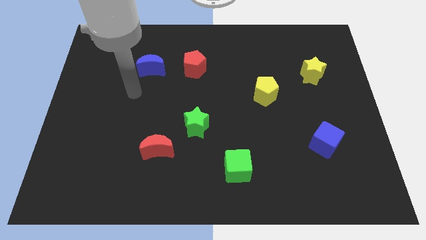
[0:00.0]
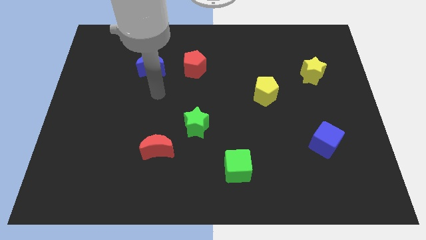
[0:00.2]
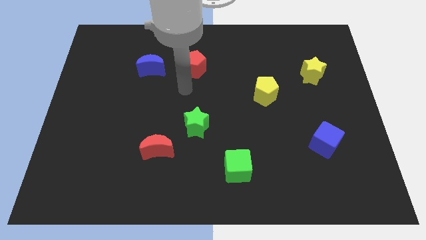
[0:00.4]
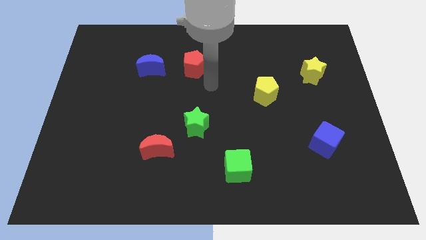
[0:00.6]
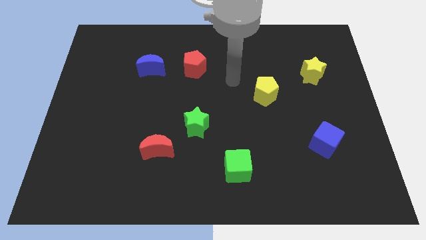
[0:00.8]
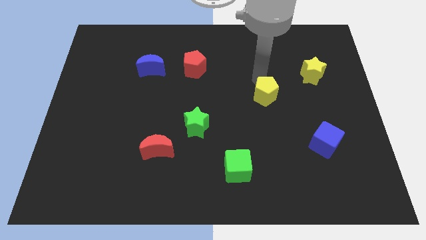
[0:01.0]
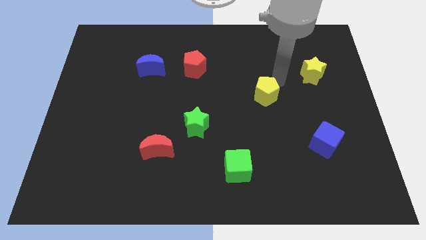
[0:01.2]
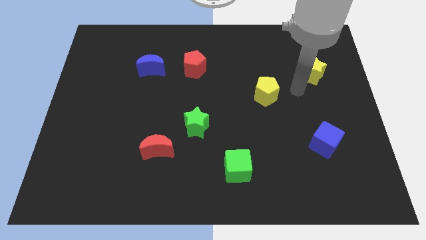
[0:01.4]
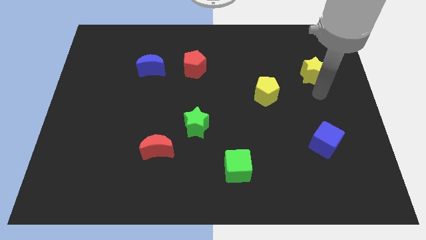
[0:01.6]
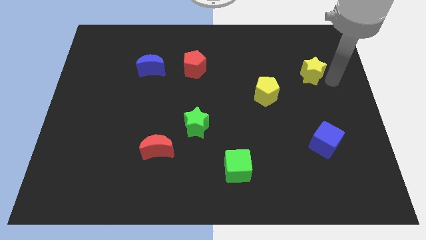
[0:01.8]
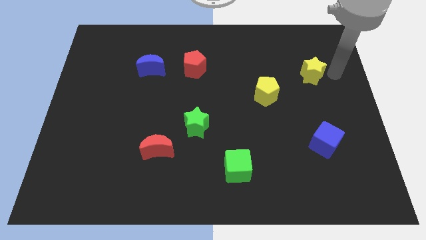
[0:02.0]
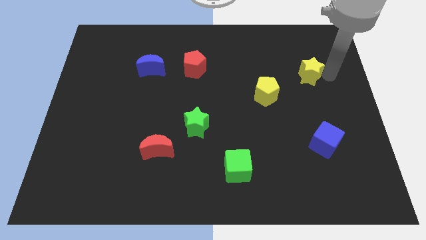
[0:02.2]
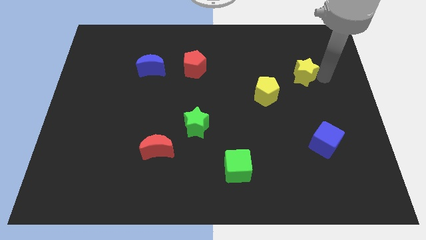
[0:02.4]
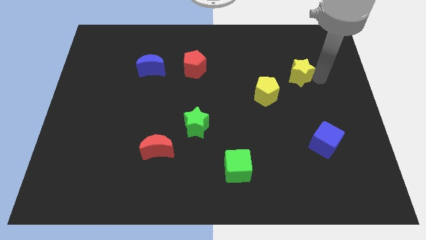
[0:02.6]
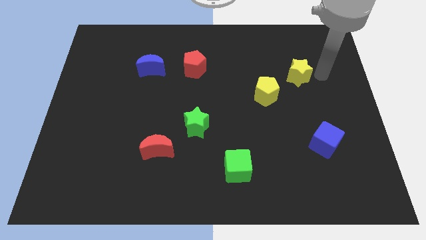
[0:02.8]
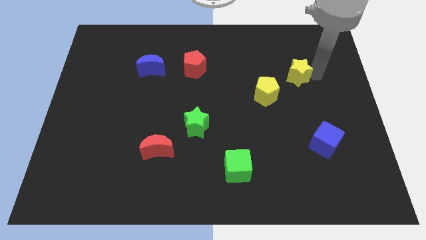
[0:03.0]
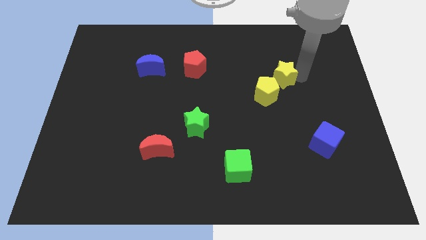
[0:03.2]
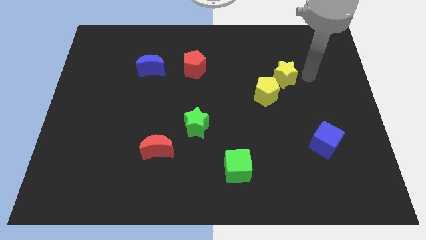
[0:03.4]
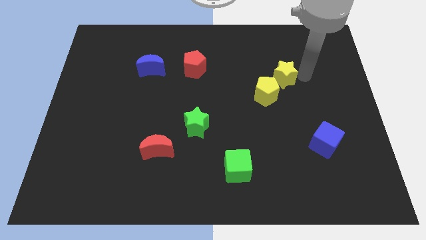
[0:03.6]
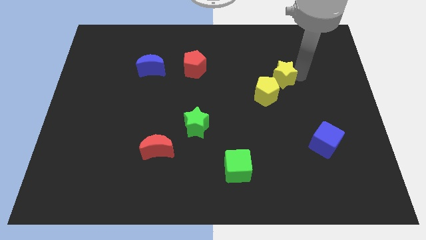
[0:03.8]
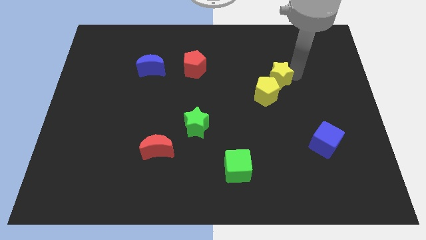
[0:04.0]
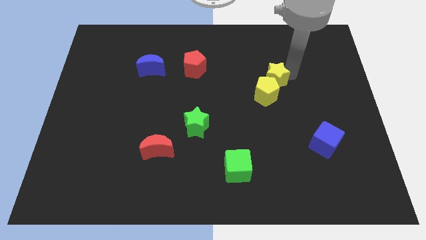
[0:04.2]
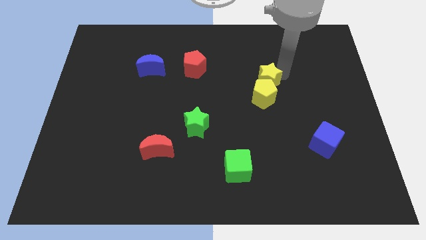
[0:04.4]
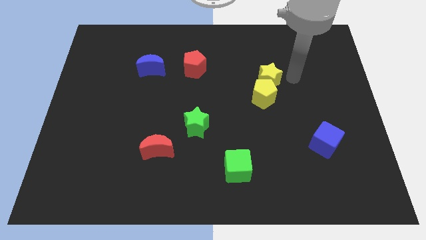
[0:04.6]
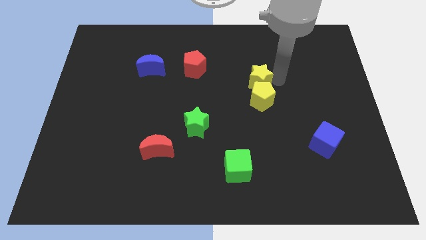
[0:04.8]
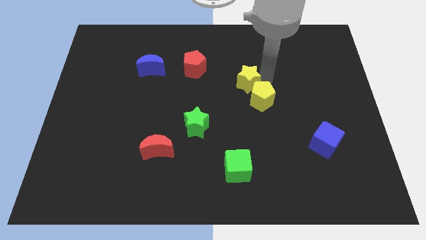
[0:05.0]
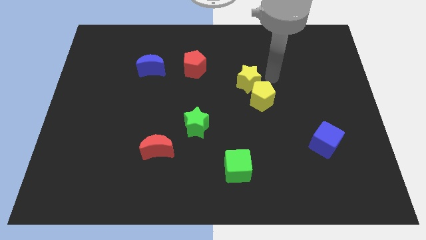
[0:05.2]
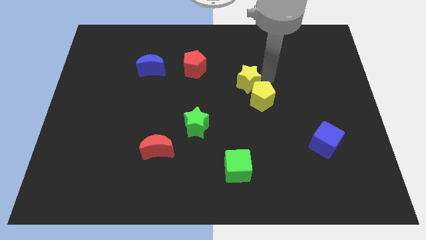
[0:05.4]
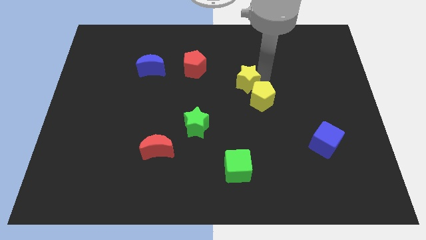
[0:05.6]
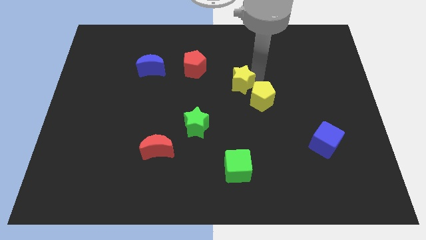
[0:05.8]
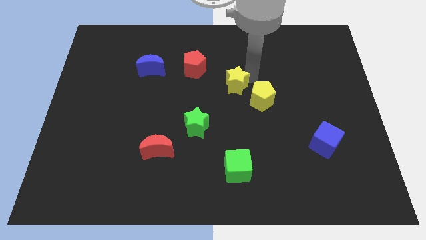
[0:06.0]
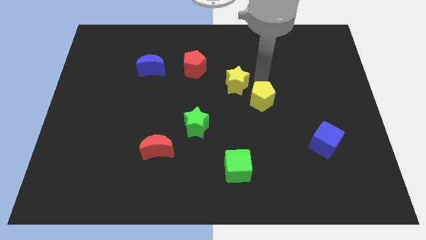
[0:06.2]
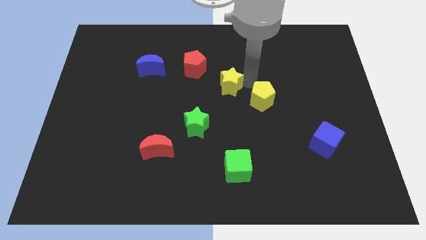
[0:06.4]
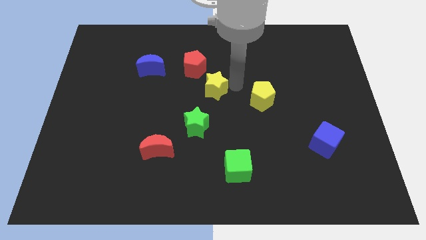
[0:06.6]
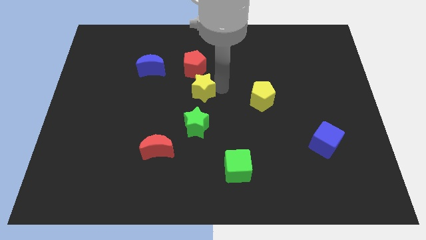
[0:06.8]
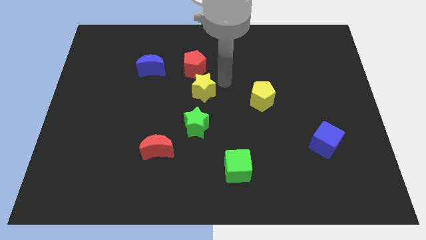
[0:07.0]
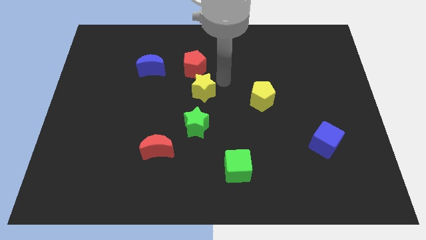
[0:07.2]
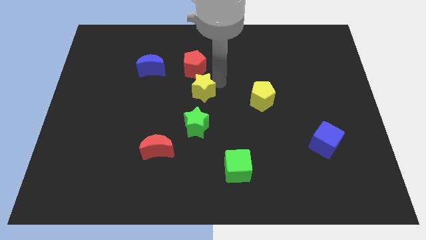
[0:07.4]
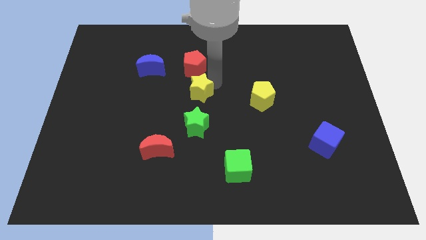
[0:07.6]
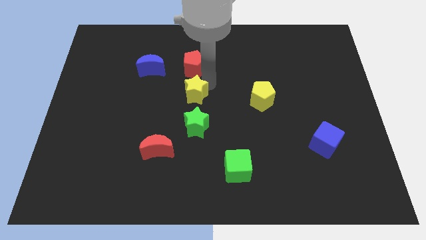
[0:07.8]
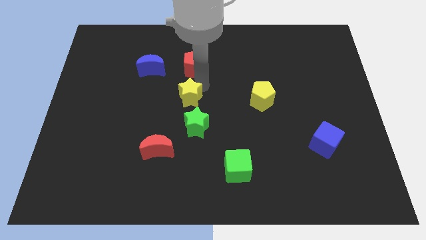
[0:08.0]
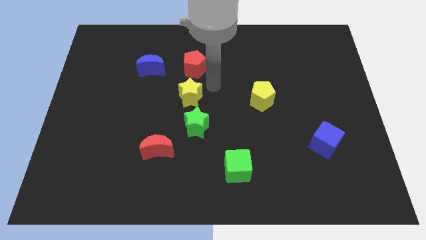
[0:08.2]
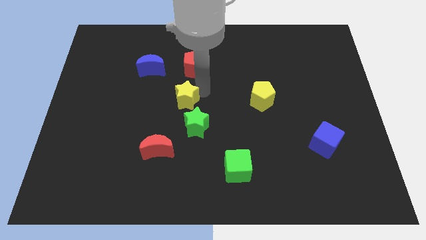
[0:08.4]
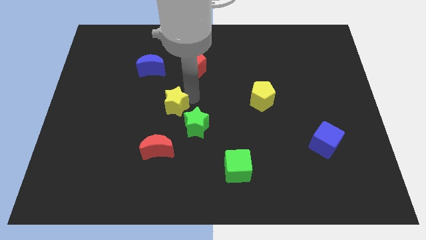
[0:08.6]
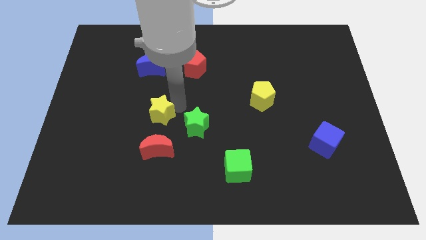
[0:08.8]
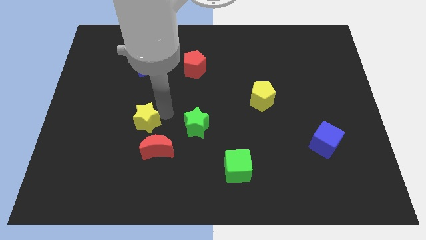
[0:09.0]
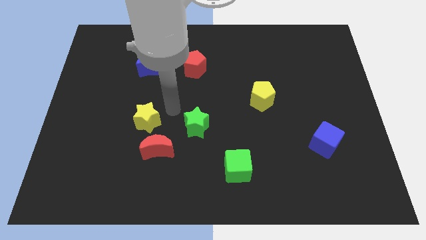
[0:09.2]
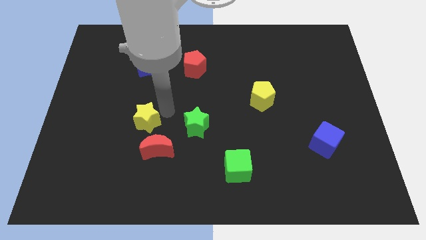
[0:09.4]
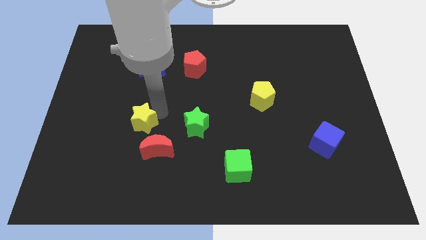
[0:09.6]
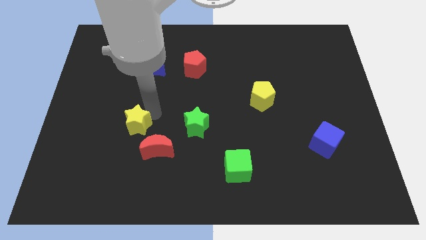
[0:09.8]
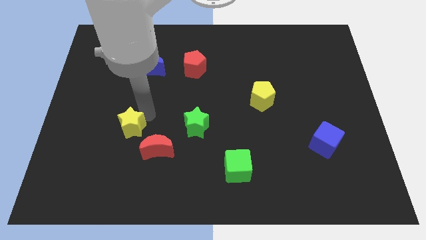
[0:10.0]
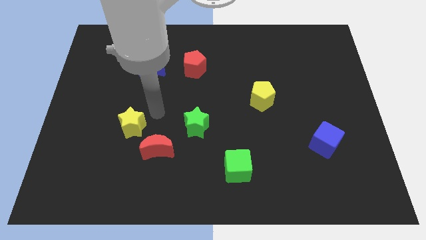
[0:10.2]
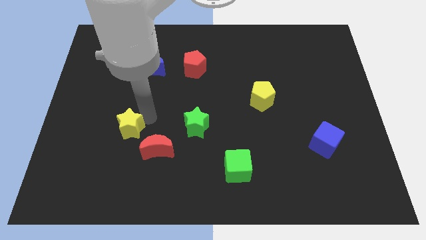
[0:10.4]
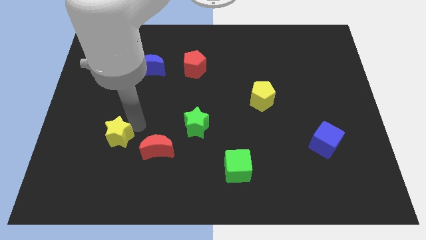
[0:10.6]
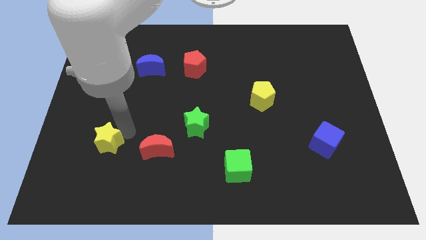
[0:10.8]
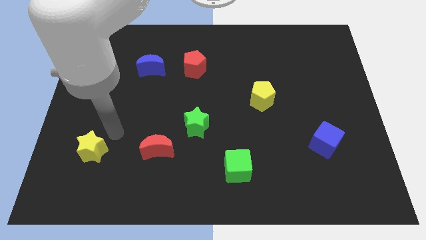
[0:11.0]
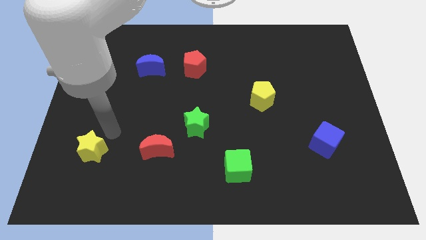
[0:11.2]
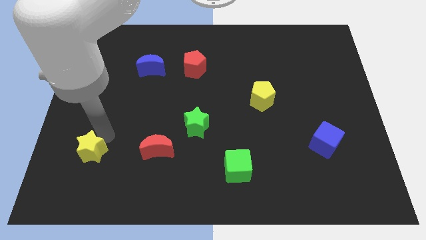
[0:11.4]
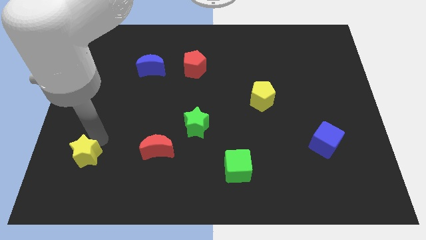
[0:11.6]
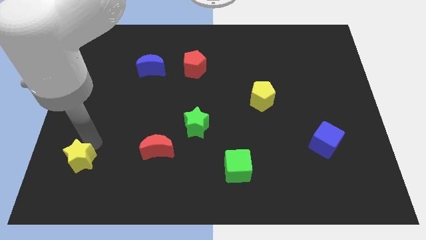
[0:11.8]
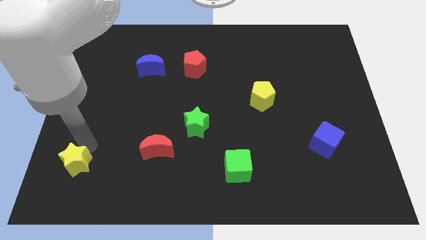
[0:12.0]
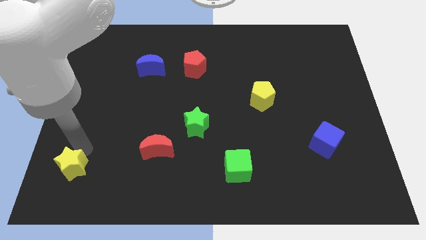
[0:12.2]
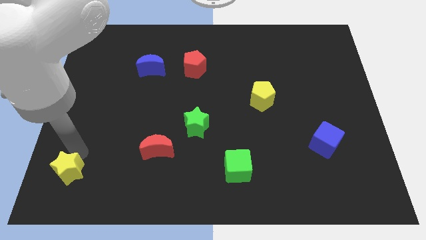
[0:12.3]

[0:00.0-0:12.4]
slide the yellow star to the bottom left

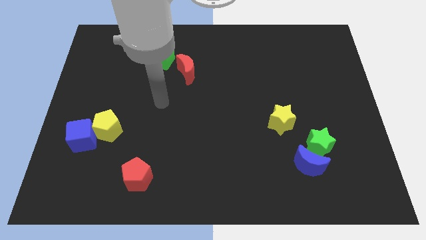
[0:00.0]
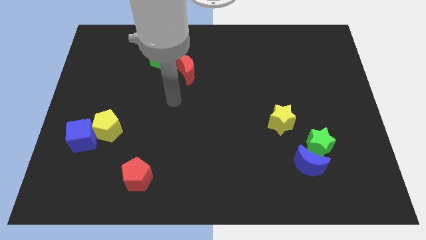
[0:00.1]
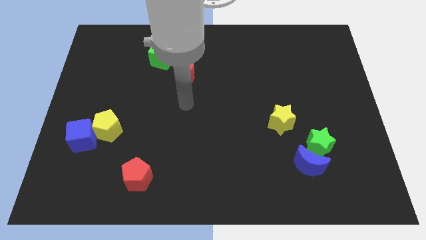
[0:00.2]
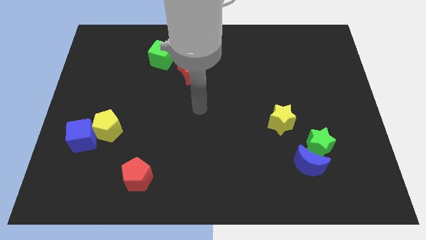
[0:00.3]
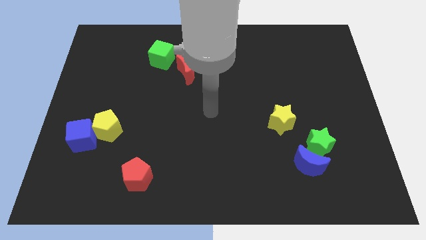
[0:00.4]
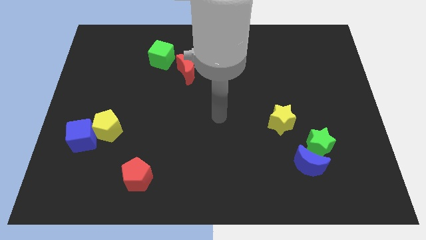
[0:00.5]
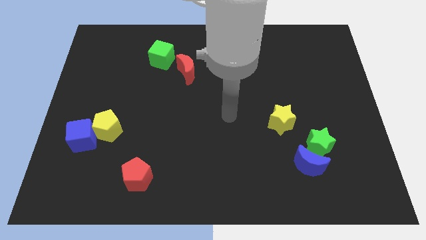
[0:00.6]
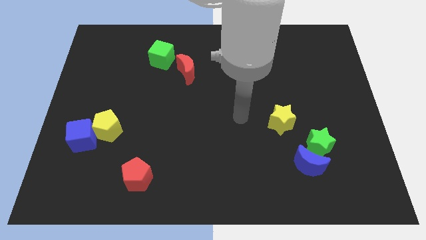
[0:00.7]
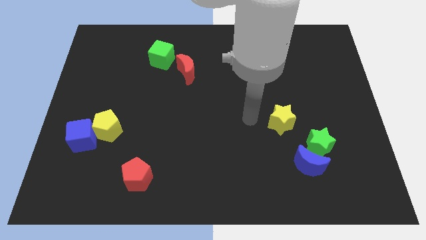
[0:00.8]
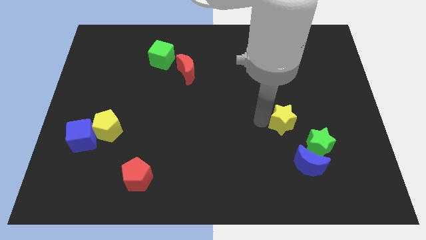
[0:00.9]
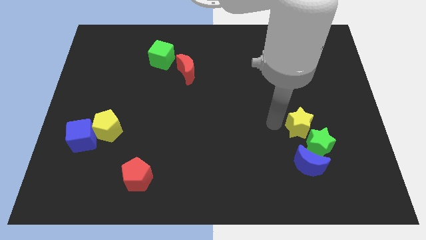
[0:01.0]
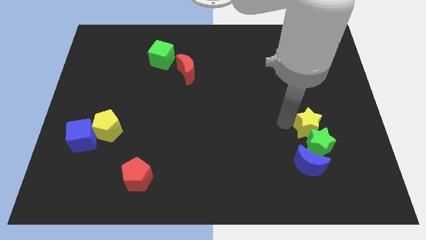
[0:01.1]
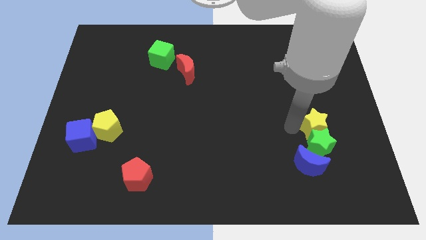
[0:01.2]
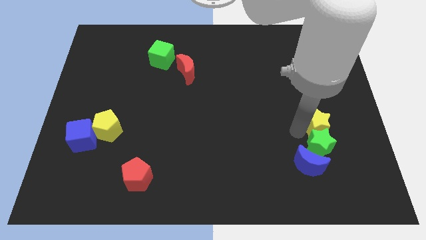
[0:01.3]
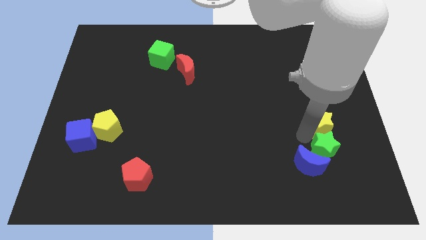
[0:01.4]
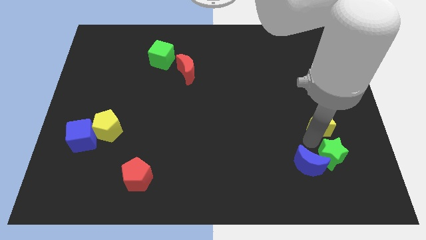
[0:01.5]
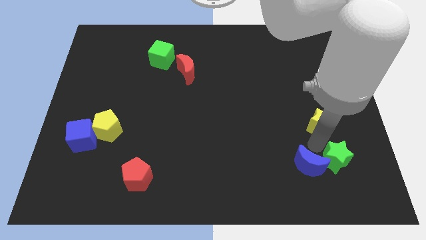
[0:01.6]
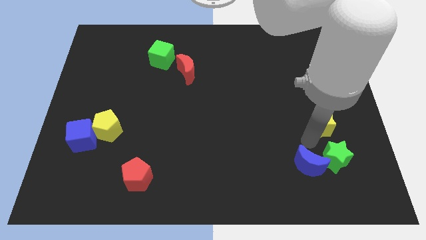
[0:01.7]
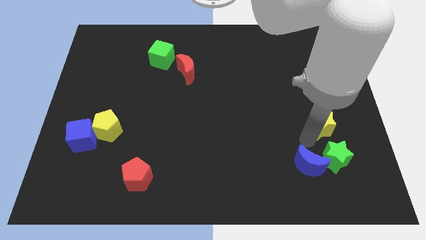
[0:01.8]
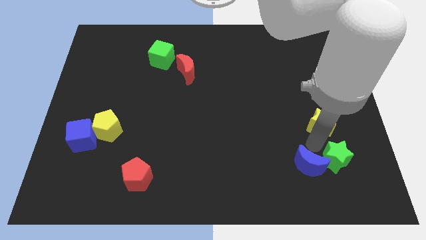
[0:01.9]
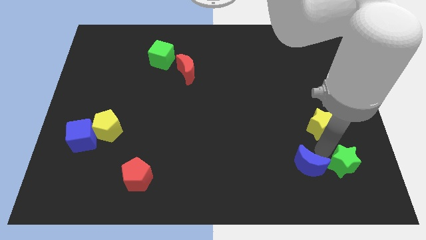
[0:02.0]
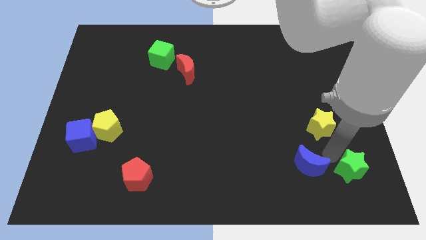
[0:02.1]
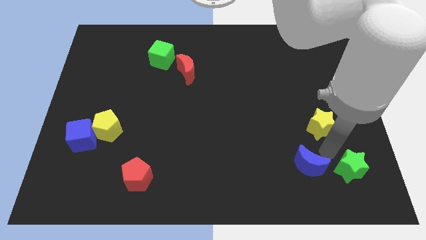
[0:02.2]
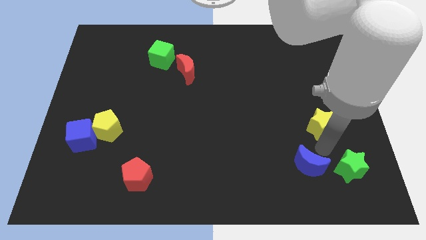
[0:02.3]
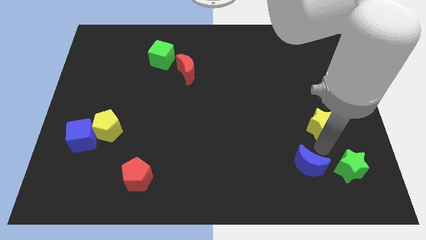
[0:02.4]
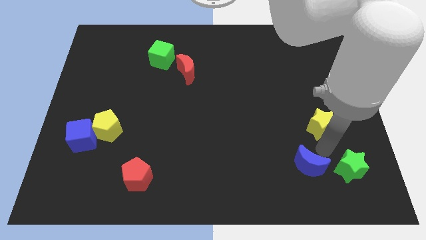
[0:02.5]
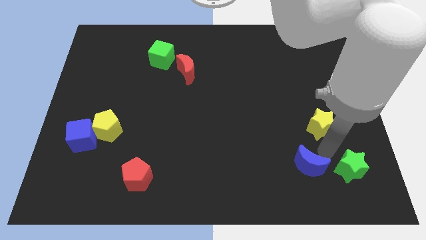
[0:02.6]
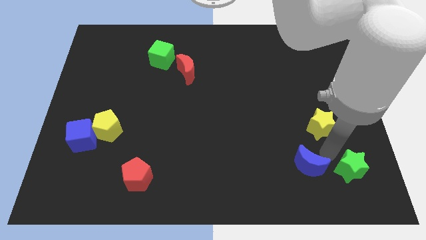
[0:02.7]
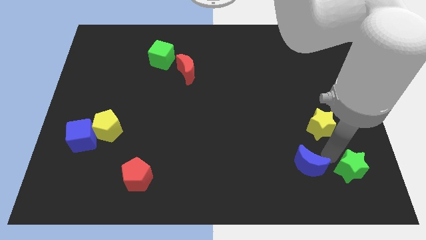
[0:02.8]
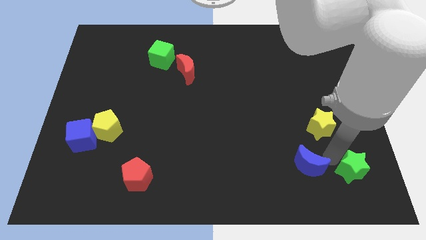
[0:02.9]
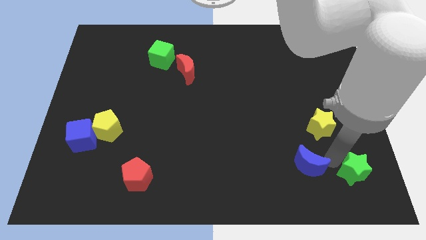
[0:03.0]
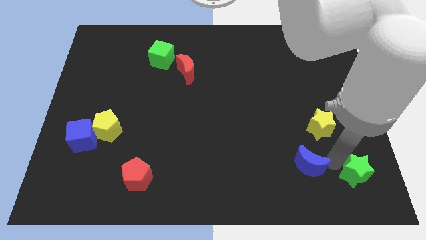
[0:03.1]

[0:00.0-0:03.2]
move the green star to the lower right corner
